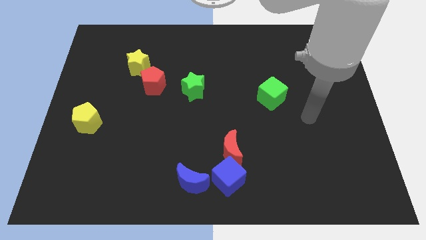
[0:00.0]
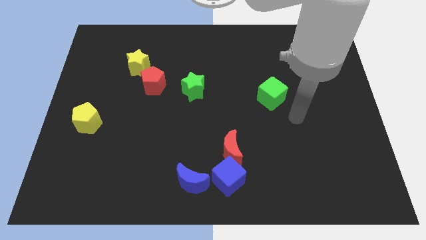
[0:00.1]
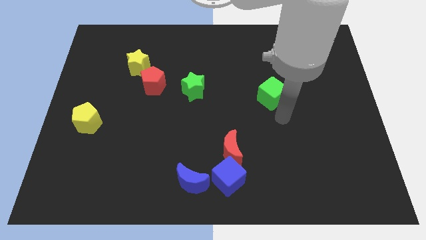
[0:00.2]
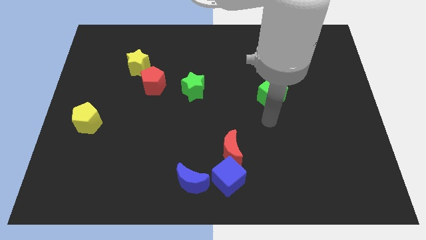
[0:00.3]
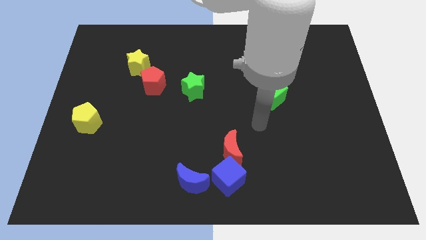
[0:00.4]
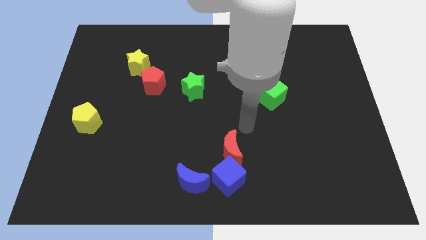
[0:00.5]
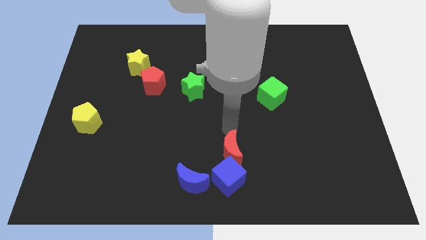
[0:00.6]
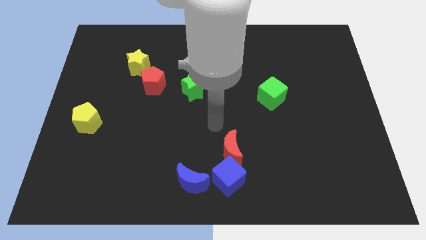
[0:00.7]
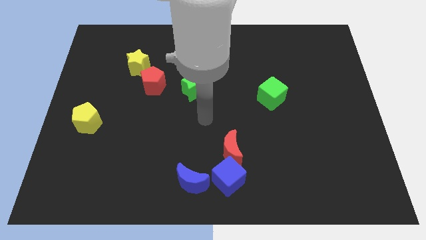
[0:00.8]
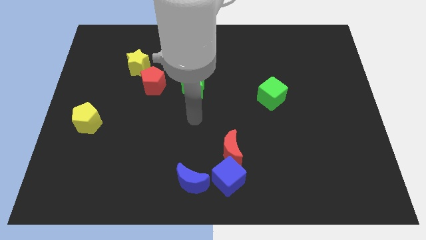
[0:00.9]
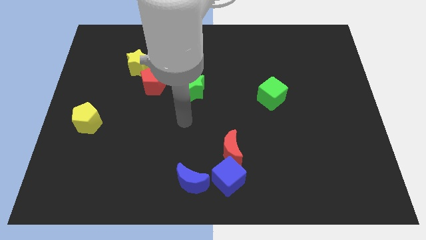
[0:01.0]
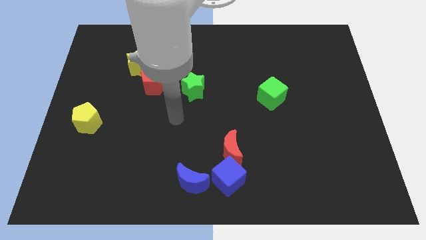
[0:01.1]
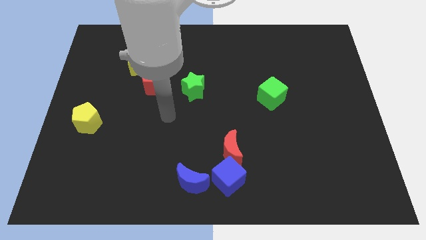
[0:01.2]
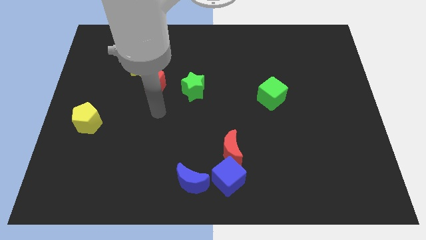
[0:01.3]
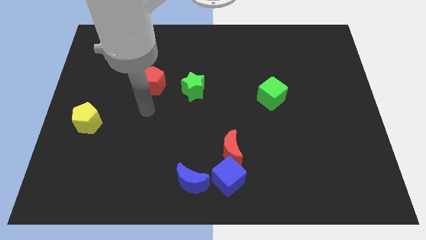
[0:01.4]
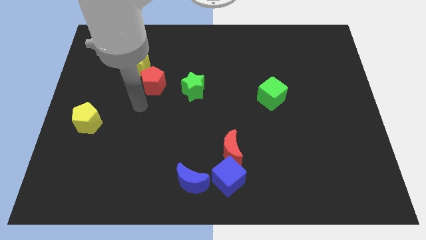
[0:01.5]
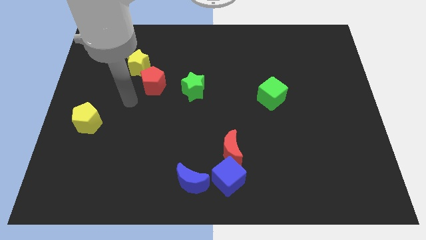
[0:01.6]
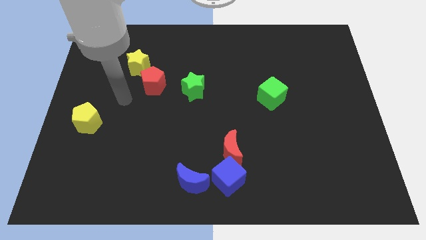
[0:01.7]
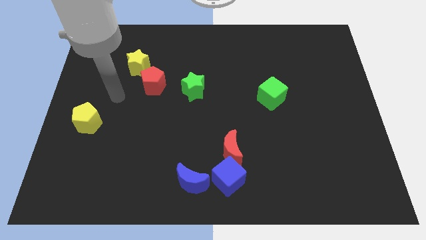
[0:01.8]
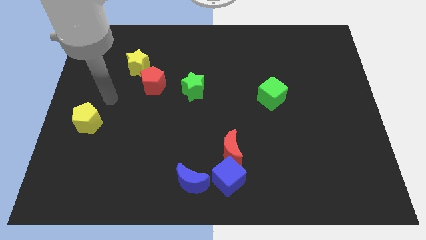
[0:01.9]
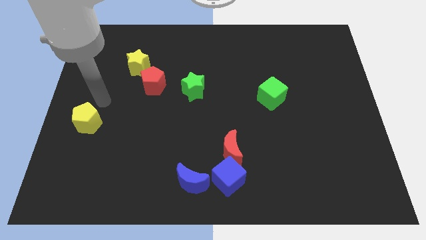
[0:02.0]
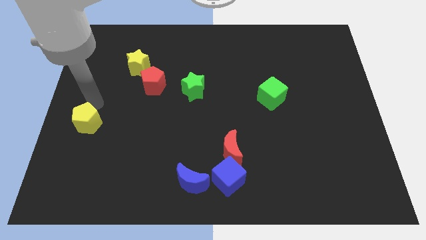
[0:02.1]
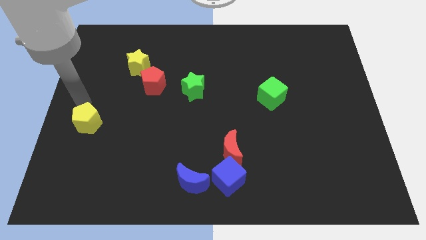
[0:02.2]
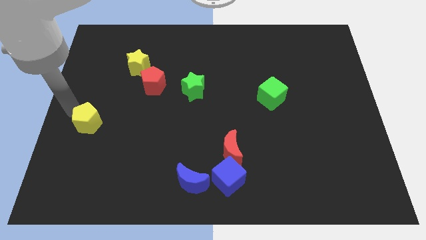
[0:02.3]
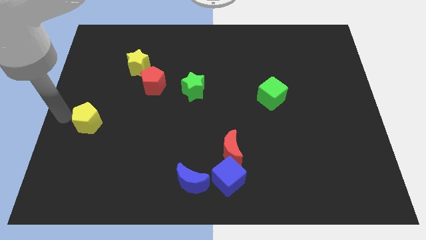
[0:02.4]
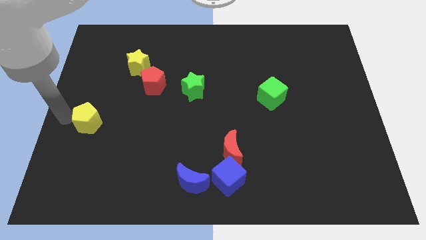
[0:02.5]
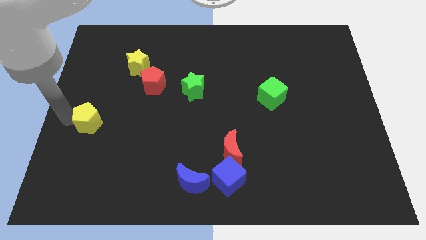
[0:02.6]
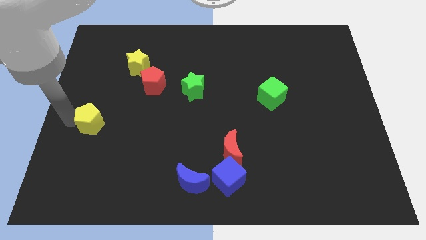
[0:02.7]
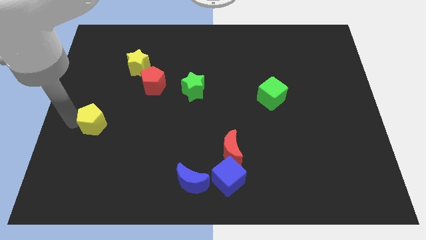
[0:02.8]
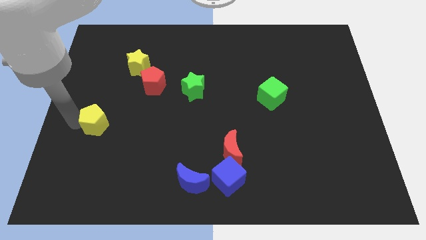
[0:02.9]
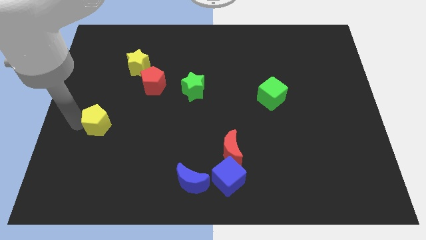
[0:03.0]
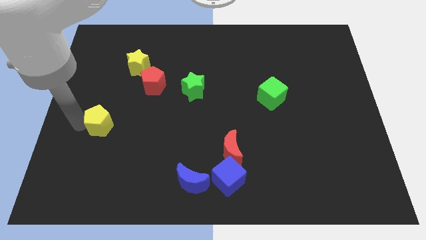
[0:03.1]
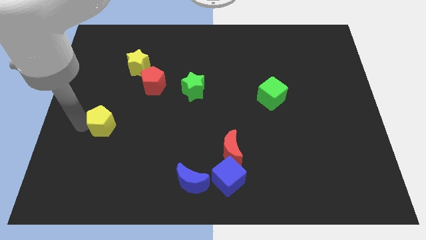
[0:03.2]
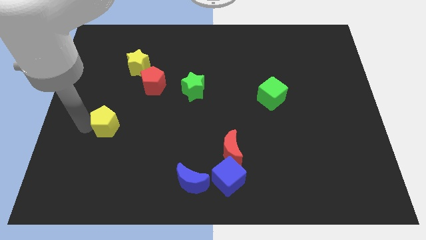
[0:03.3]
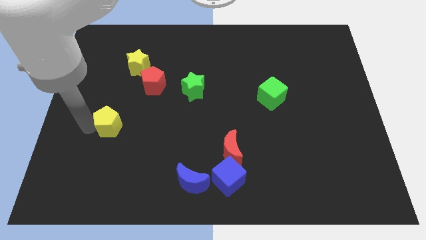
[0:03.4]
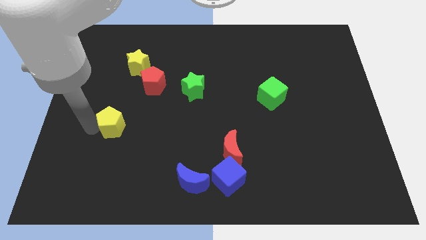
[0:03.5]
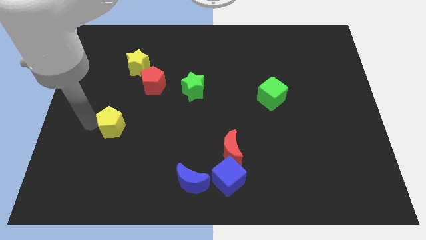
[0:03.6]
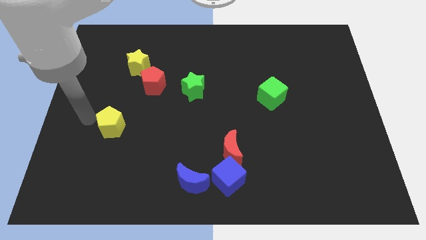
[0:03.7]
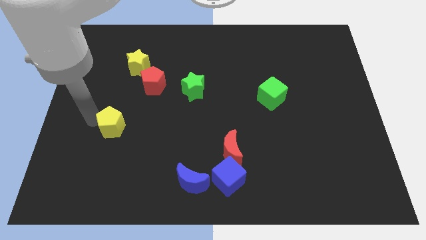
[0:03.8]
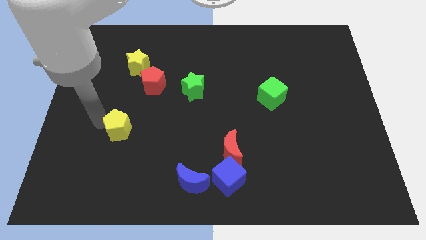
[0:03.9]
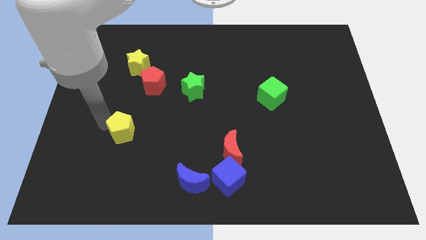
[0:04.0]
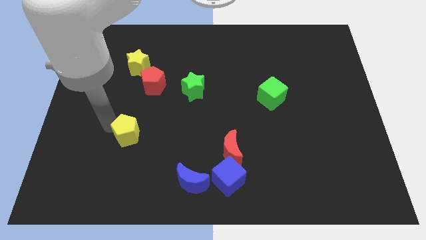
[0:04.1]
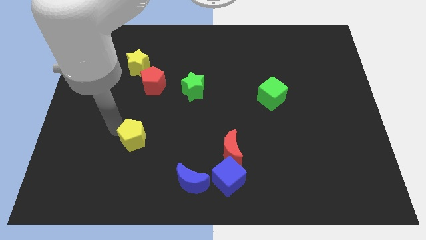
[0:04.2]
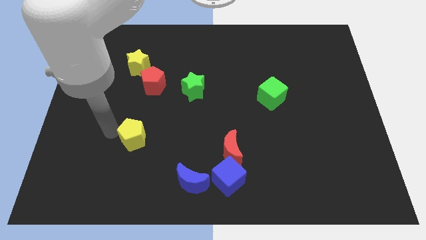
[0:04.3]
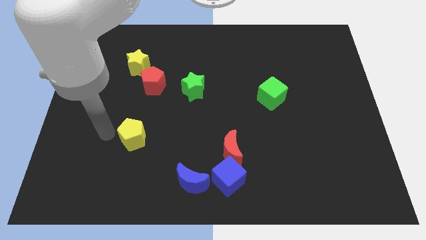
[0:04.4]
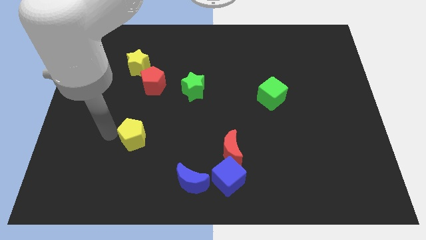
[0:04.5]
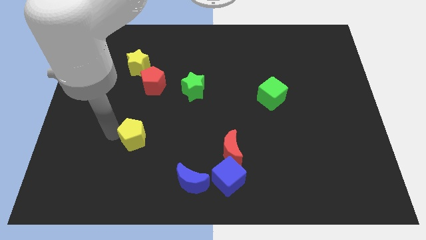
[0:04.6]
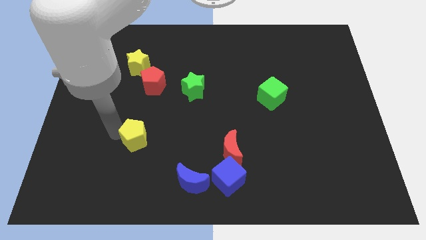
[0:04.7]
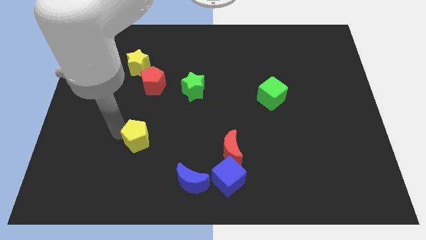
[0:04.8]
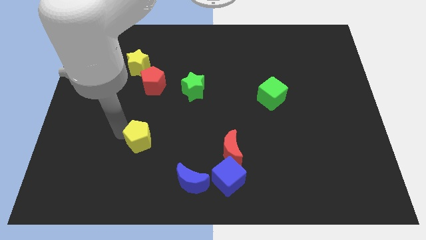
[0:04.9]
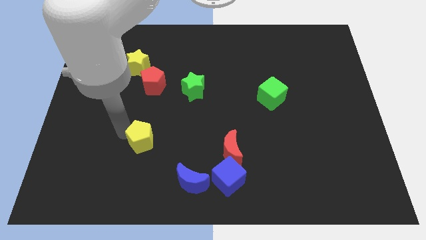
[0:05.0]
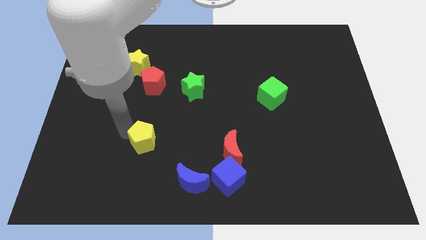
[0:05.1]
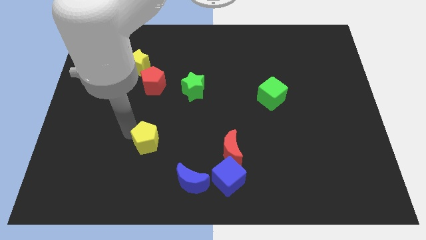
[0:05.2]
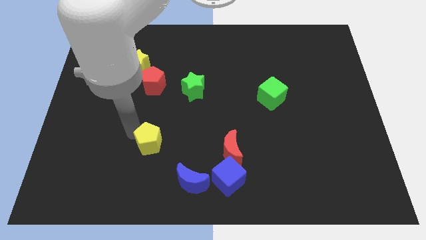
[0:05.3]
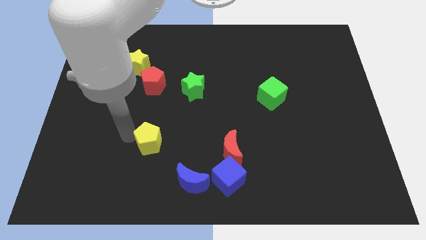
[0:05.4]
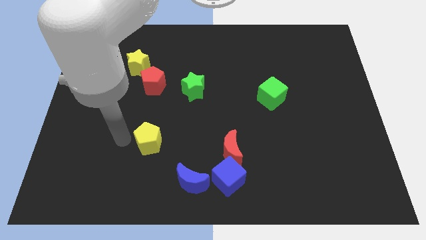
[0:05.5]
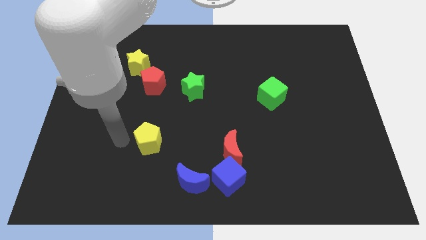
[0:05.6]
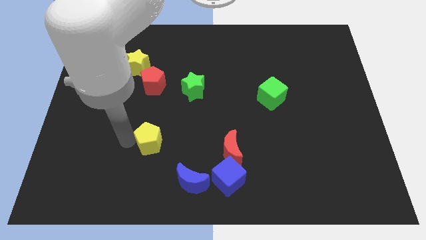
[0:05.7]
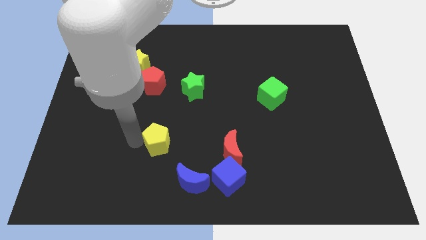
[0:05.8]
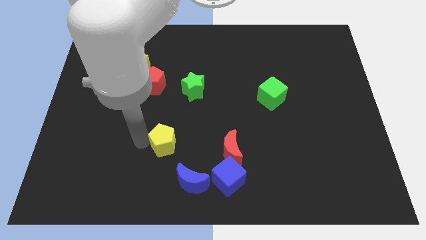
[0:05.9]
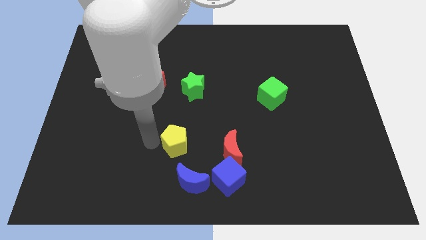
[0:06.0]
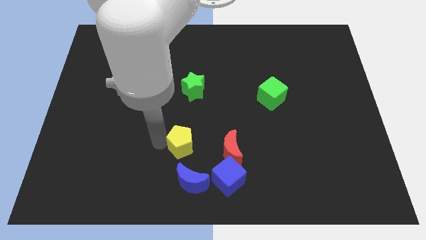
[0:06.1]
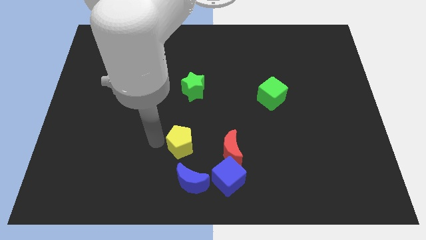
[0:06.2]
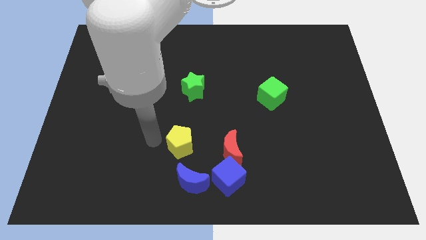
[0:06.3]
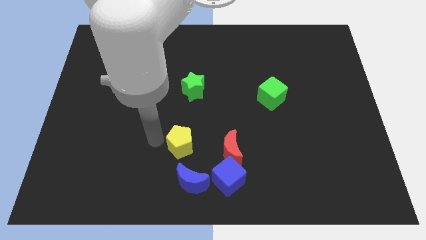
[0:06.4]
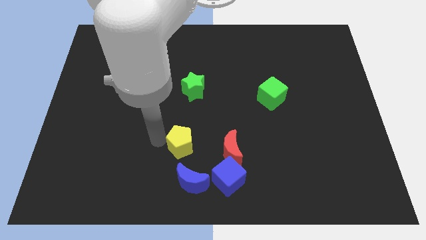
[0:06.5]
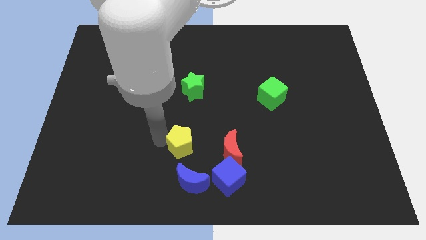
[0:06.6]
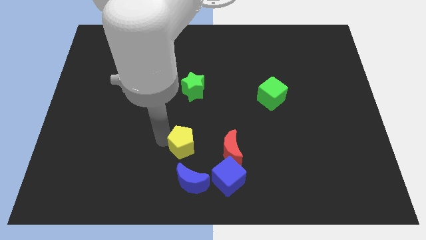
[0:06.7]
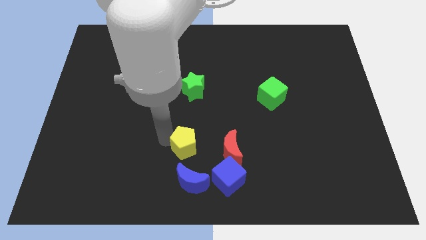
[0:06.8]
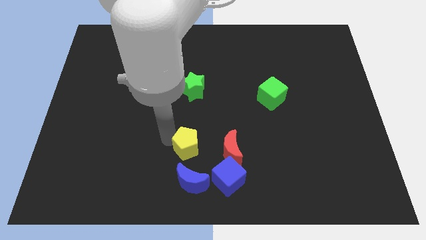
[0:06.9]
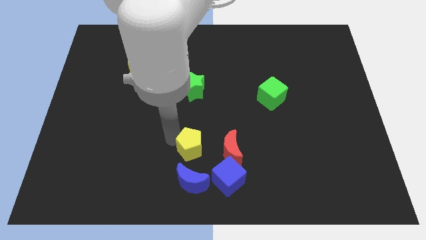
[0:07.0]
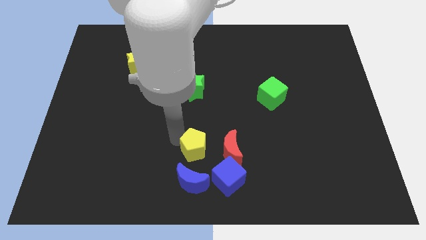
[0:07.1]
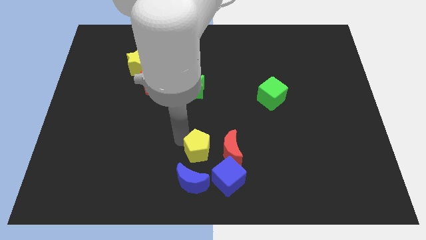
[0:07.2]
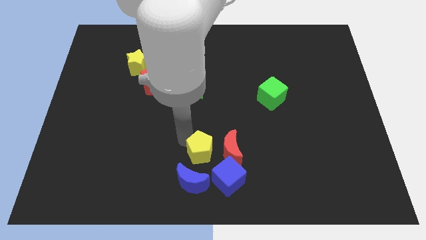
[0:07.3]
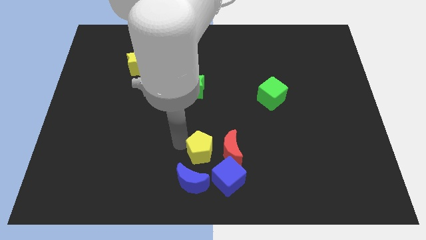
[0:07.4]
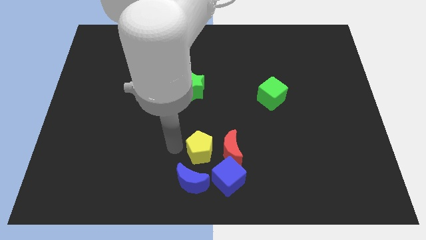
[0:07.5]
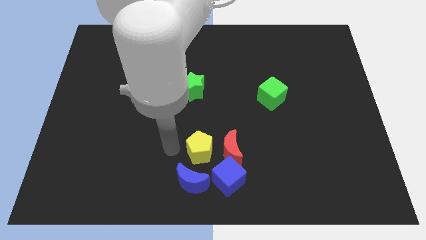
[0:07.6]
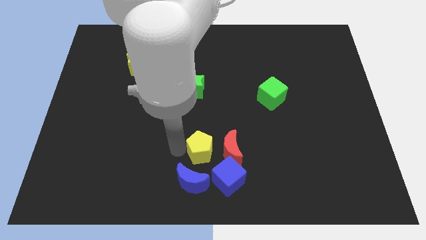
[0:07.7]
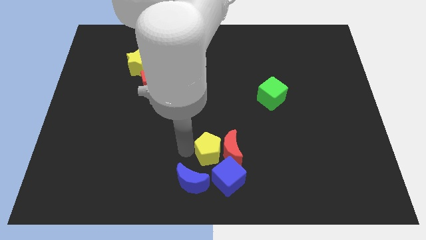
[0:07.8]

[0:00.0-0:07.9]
put the yellow pentagon next to the red moon
